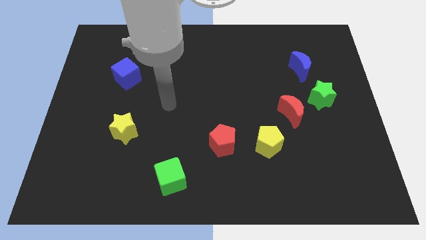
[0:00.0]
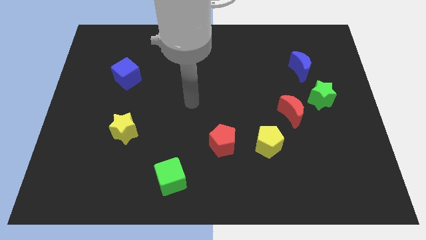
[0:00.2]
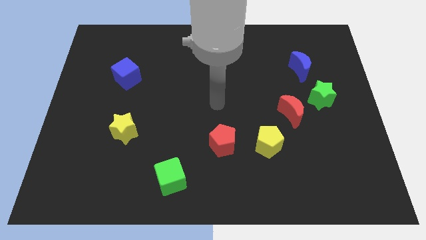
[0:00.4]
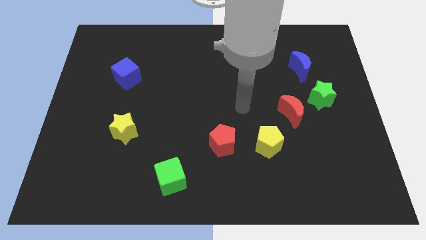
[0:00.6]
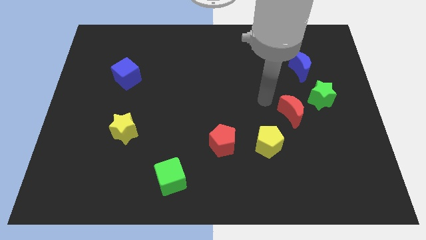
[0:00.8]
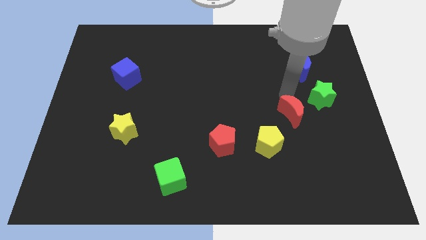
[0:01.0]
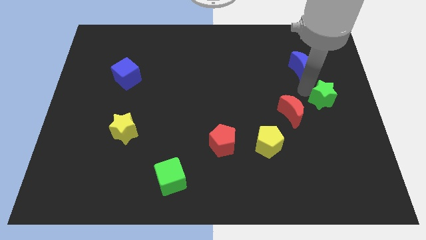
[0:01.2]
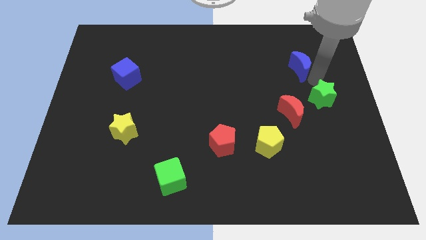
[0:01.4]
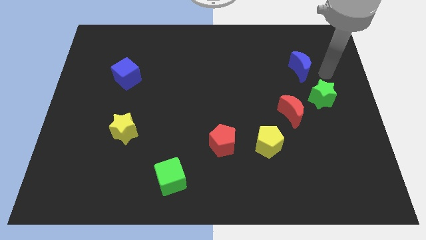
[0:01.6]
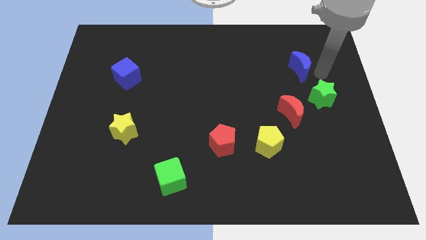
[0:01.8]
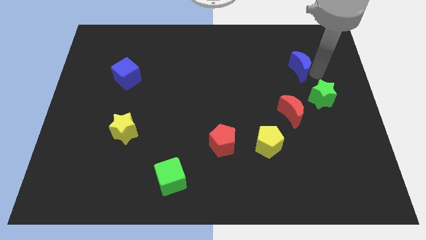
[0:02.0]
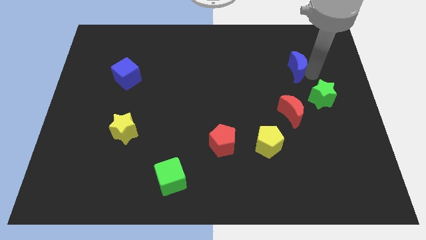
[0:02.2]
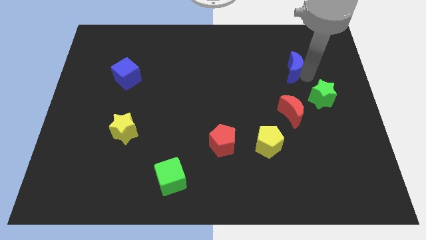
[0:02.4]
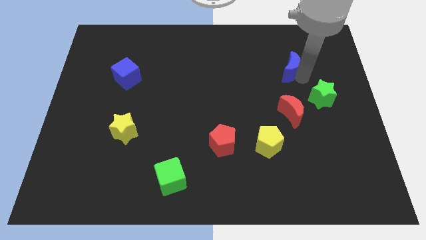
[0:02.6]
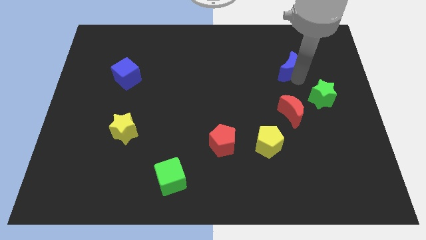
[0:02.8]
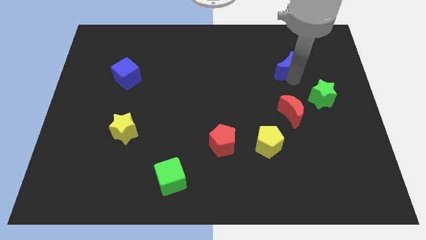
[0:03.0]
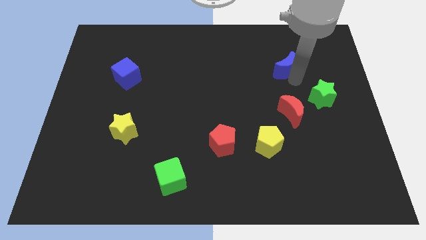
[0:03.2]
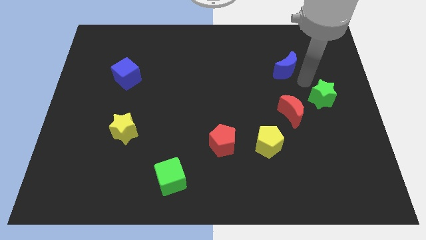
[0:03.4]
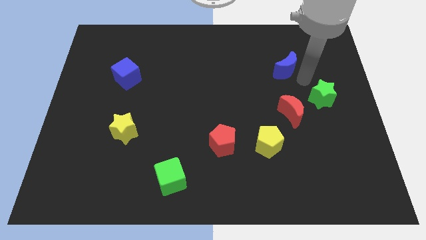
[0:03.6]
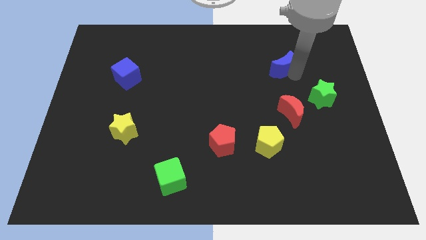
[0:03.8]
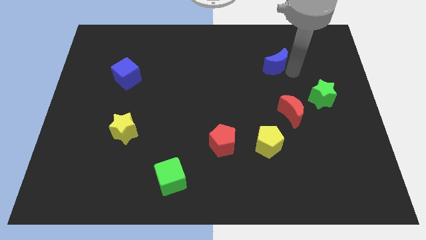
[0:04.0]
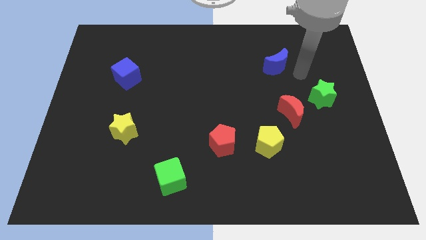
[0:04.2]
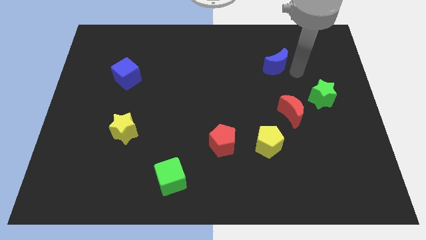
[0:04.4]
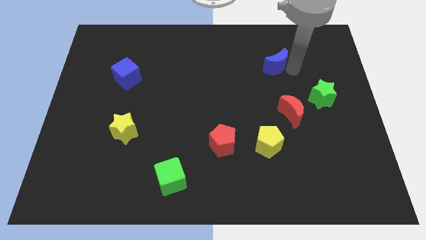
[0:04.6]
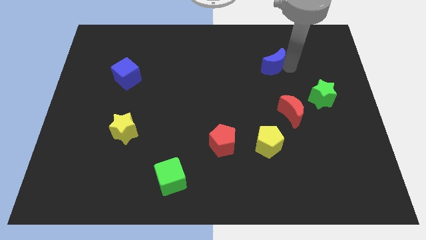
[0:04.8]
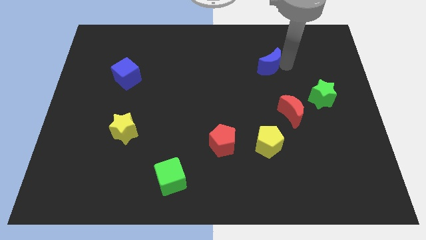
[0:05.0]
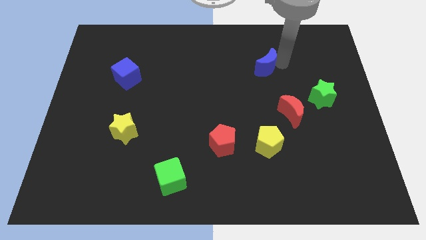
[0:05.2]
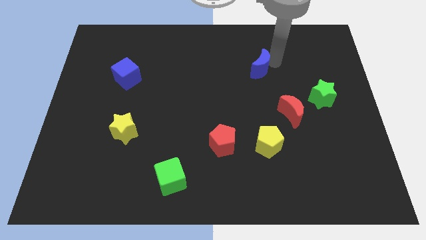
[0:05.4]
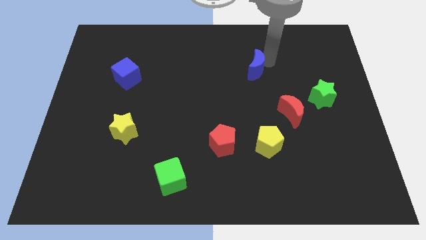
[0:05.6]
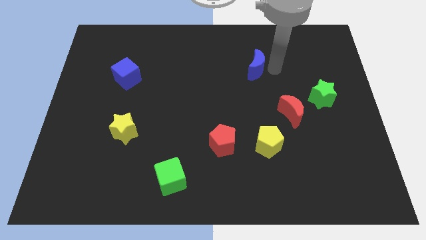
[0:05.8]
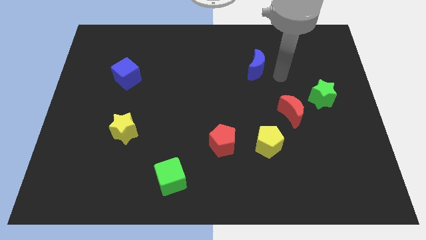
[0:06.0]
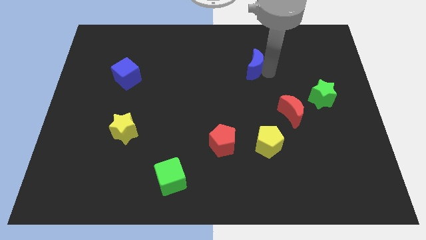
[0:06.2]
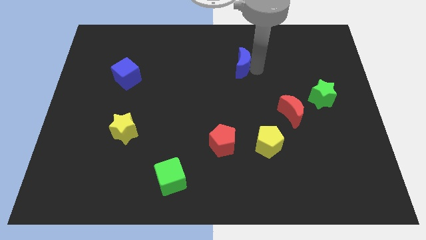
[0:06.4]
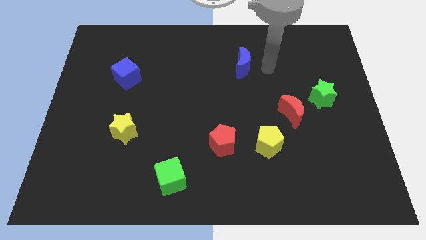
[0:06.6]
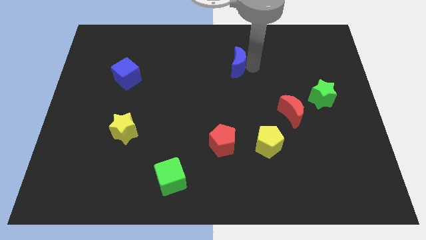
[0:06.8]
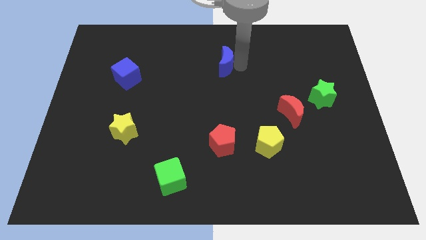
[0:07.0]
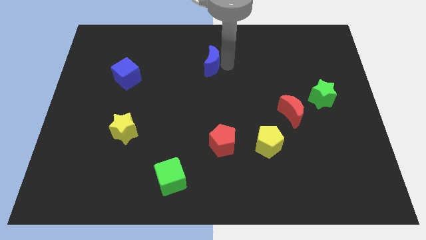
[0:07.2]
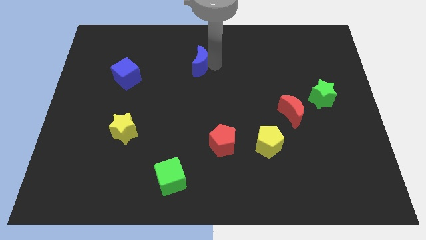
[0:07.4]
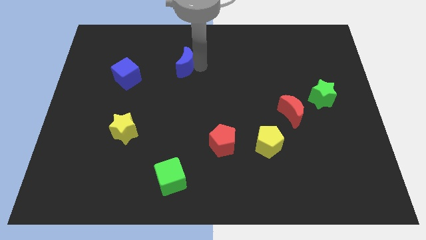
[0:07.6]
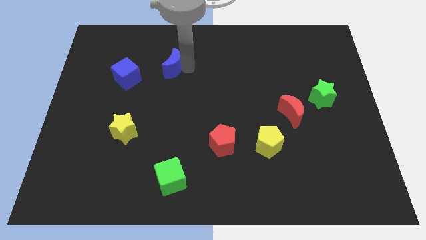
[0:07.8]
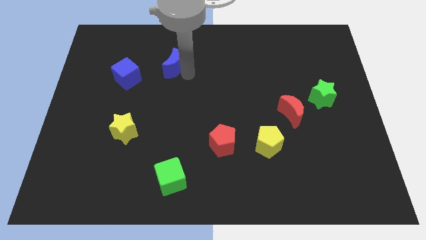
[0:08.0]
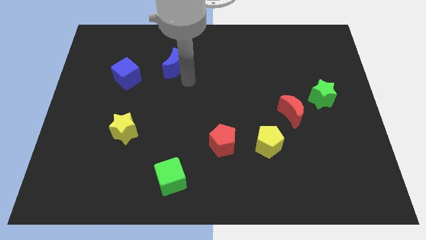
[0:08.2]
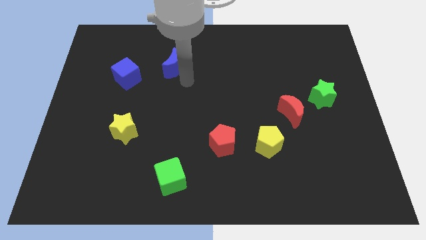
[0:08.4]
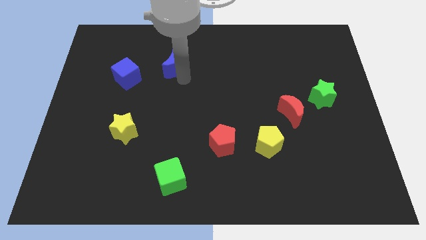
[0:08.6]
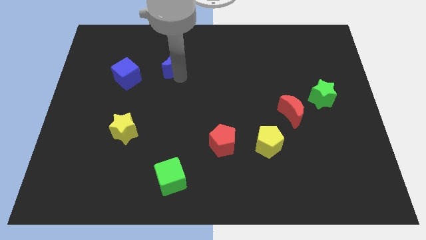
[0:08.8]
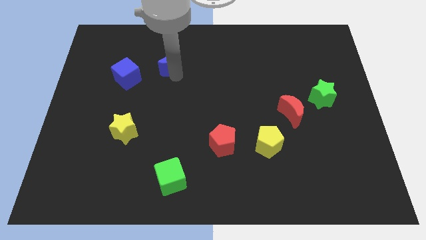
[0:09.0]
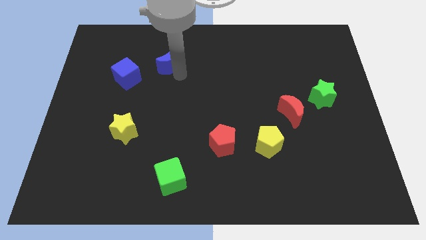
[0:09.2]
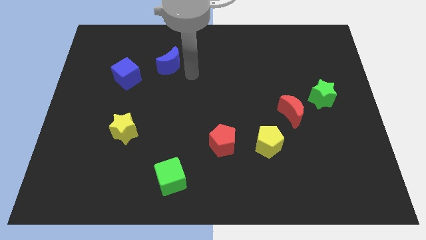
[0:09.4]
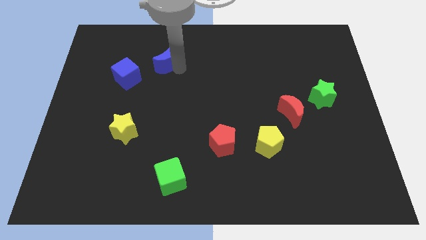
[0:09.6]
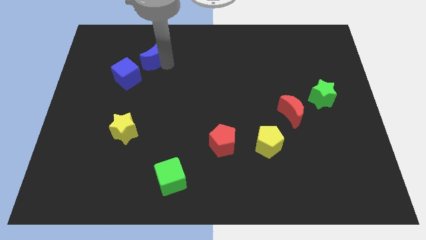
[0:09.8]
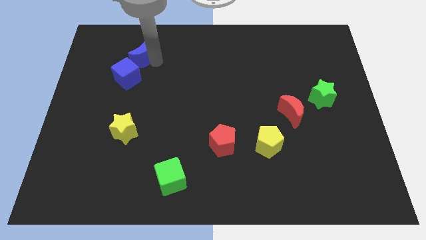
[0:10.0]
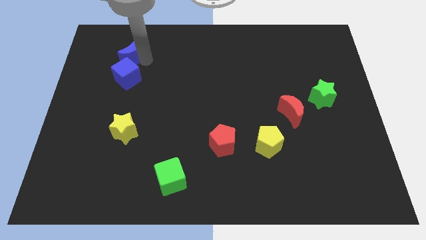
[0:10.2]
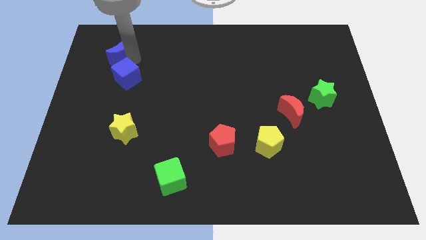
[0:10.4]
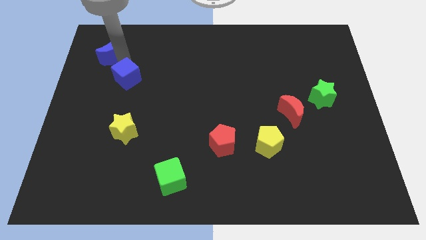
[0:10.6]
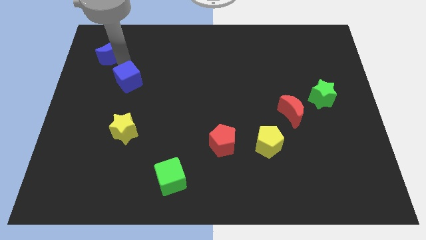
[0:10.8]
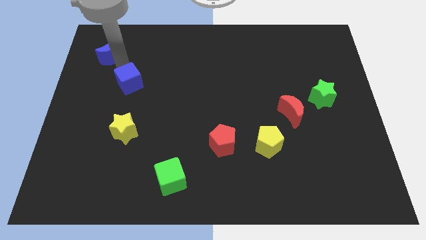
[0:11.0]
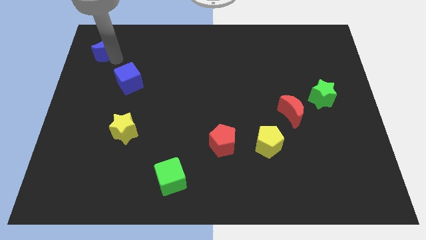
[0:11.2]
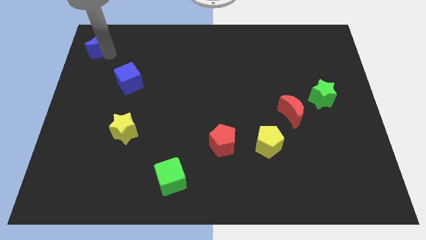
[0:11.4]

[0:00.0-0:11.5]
move the blue moon to the upper left corner
